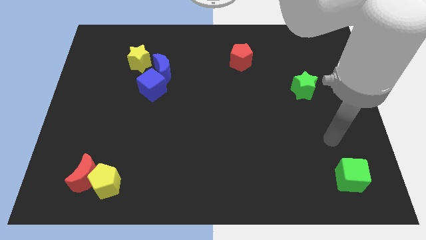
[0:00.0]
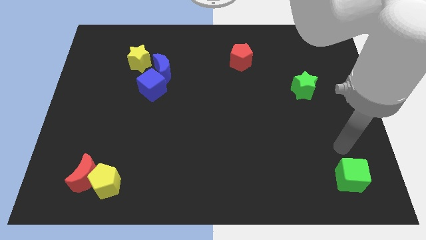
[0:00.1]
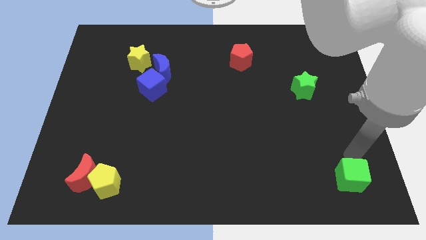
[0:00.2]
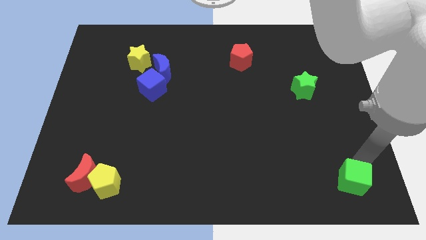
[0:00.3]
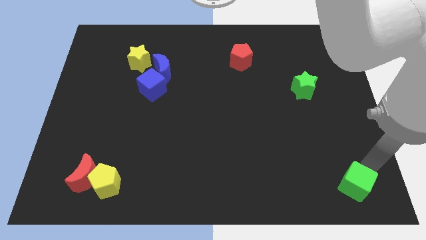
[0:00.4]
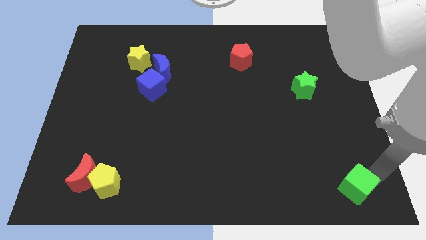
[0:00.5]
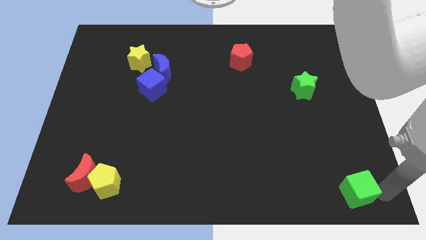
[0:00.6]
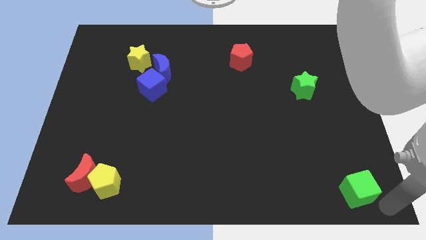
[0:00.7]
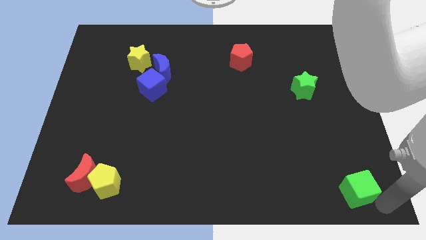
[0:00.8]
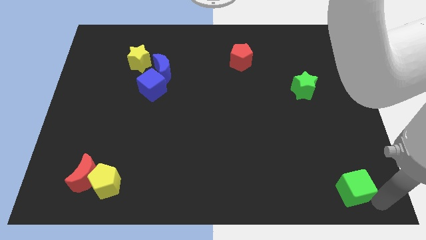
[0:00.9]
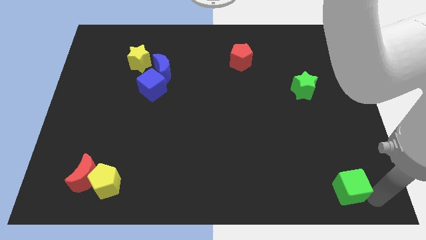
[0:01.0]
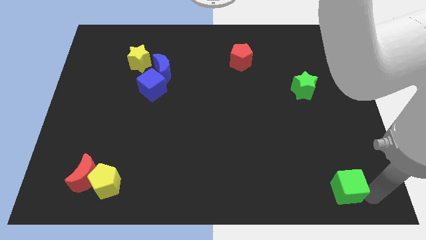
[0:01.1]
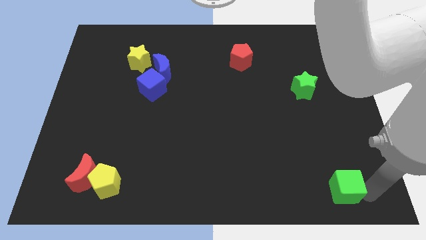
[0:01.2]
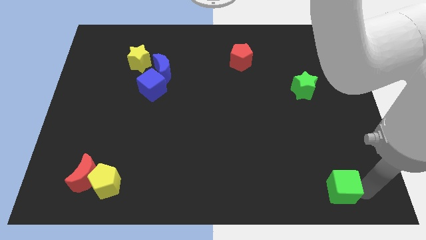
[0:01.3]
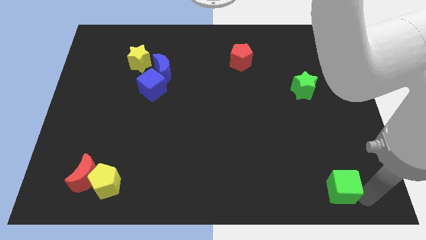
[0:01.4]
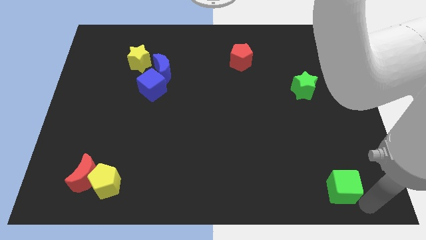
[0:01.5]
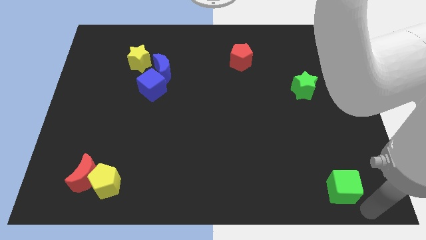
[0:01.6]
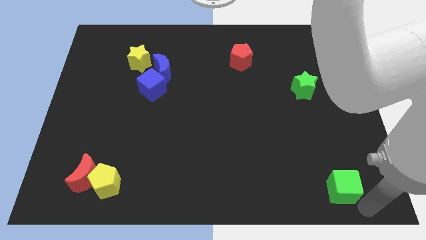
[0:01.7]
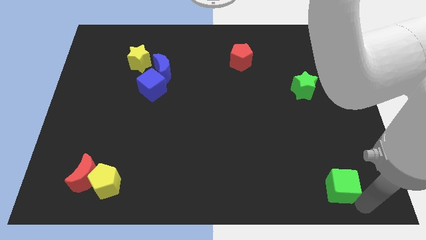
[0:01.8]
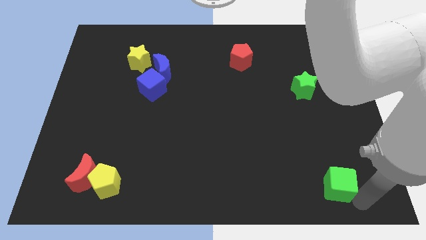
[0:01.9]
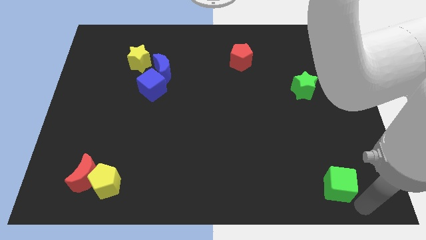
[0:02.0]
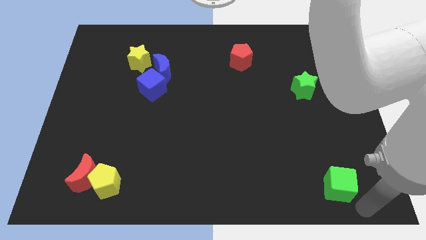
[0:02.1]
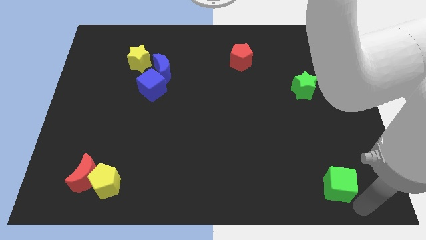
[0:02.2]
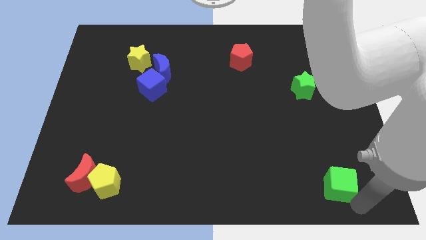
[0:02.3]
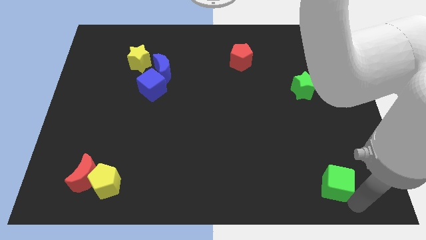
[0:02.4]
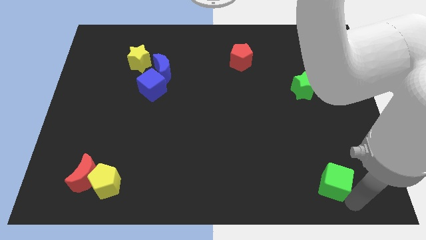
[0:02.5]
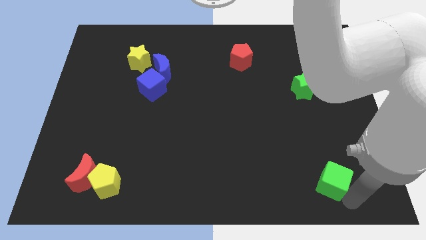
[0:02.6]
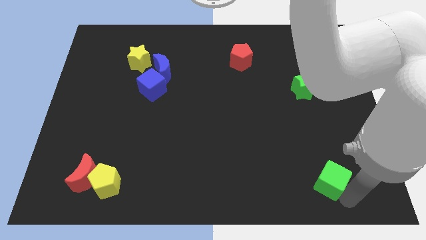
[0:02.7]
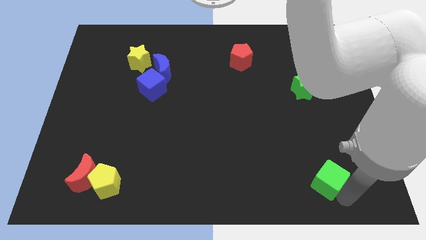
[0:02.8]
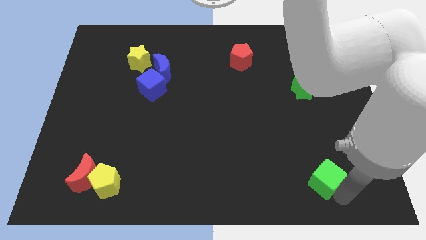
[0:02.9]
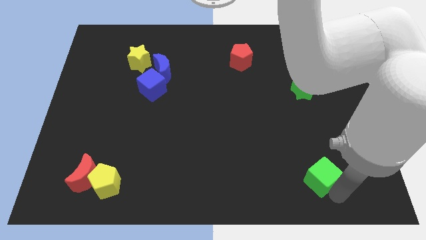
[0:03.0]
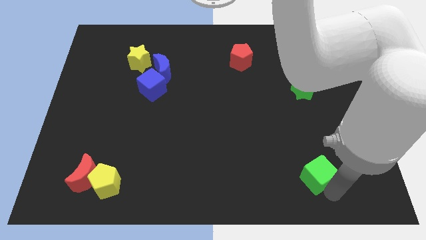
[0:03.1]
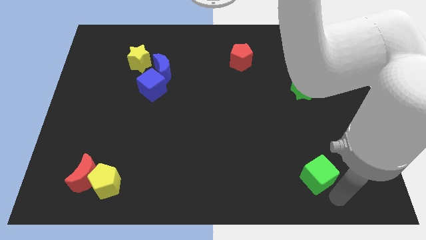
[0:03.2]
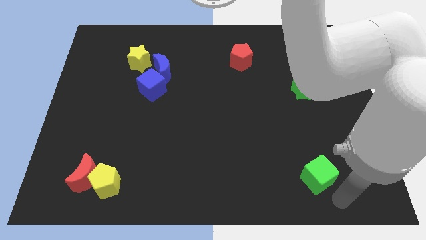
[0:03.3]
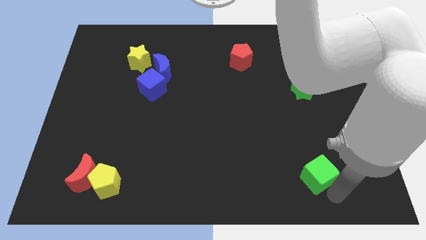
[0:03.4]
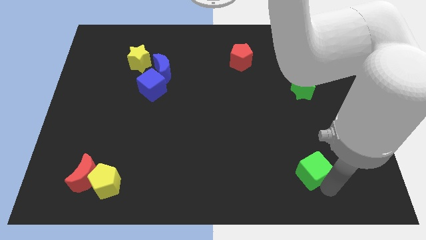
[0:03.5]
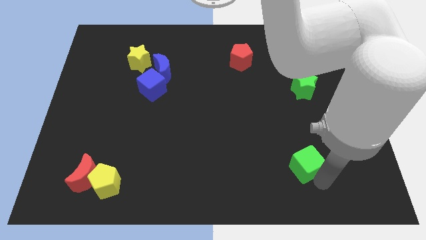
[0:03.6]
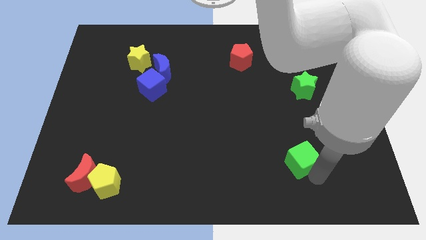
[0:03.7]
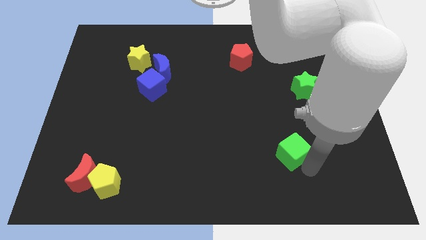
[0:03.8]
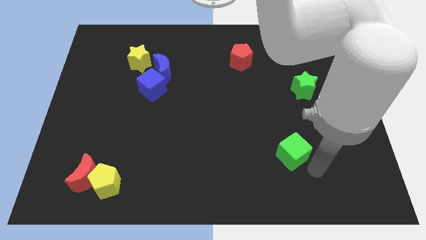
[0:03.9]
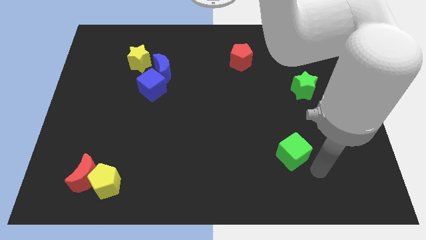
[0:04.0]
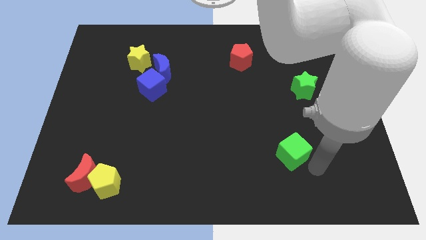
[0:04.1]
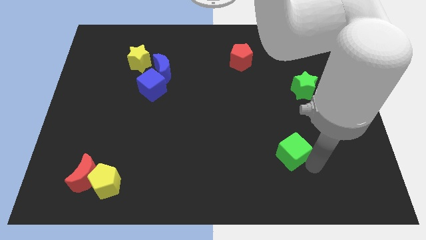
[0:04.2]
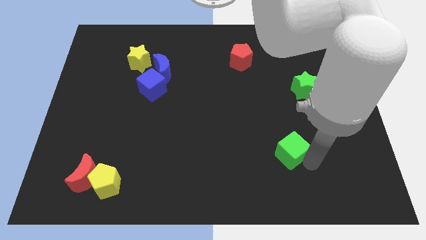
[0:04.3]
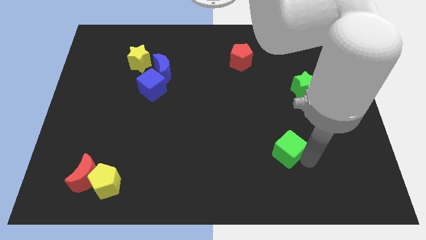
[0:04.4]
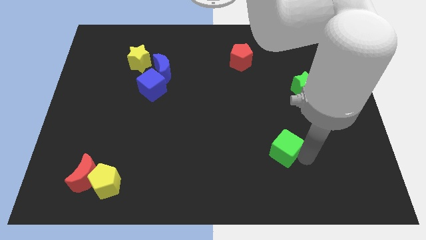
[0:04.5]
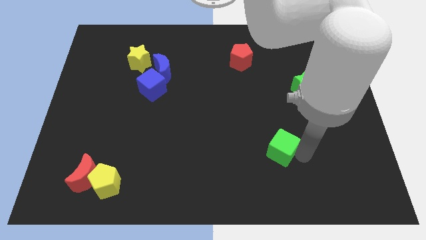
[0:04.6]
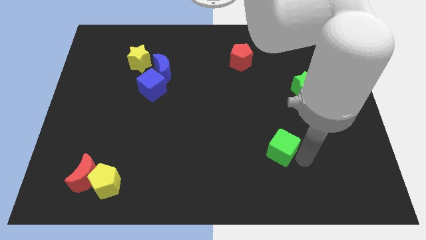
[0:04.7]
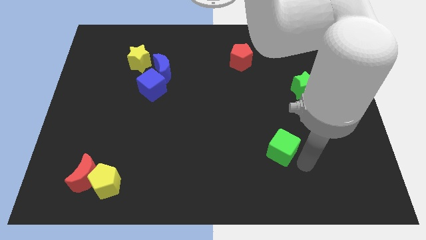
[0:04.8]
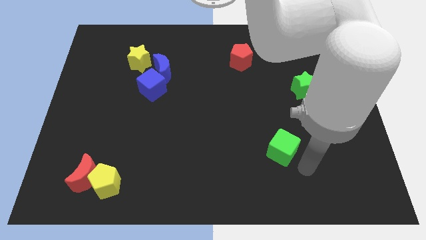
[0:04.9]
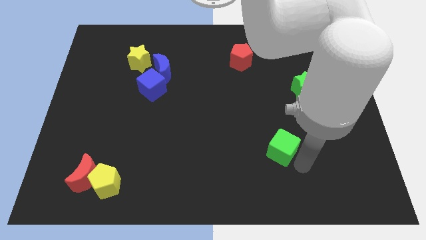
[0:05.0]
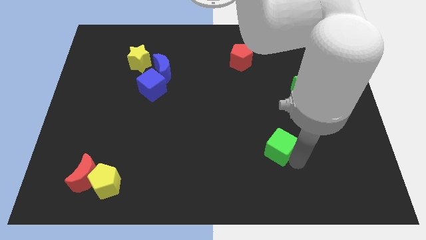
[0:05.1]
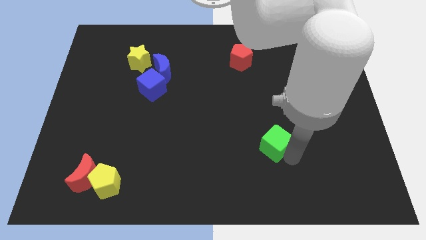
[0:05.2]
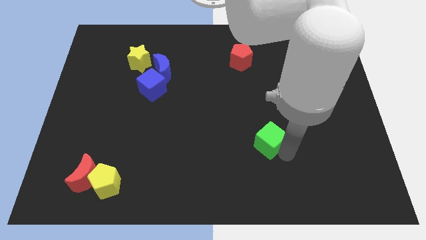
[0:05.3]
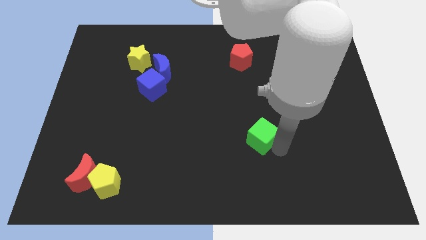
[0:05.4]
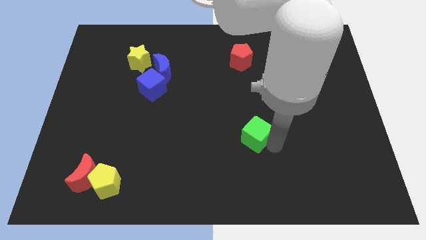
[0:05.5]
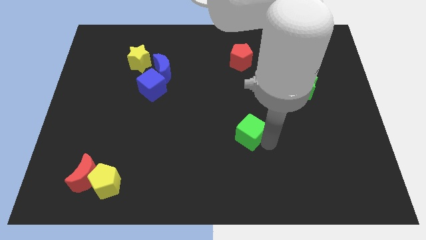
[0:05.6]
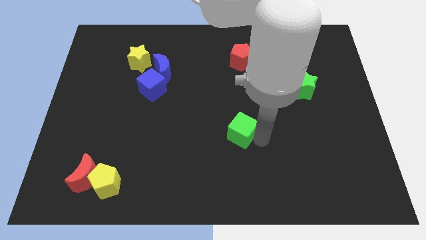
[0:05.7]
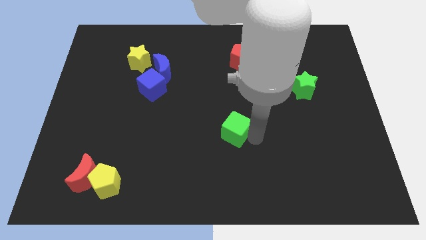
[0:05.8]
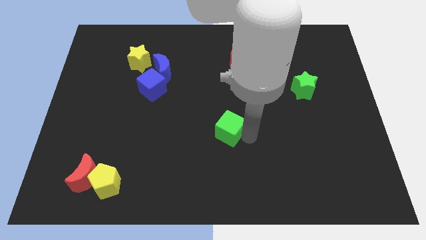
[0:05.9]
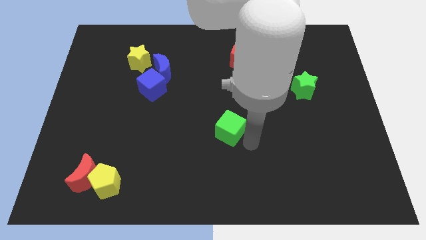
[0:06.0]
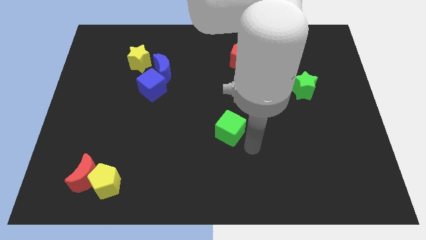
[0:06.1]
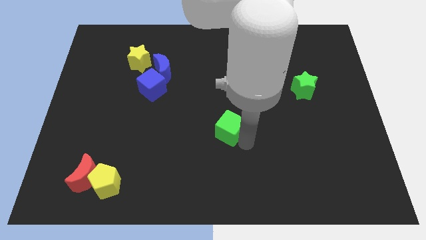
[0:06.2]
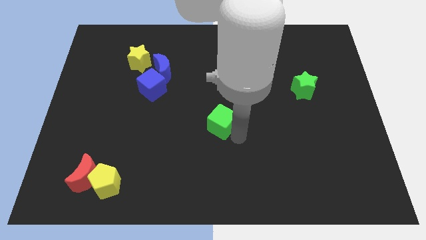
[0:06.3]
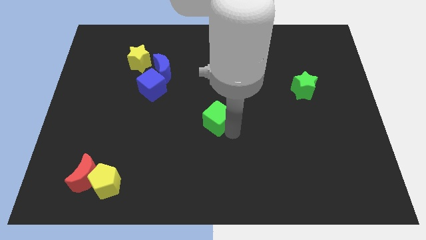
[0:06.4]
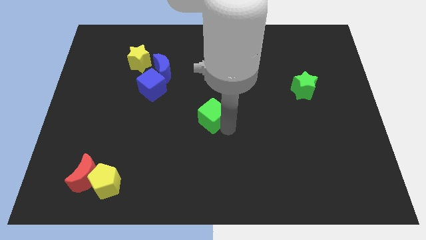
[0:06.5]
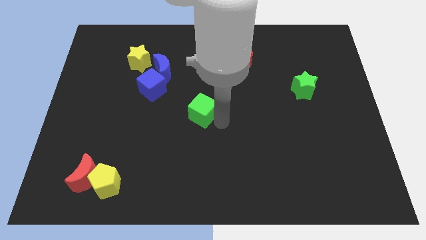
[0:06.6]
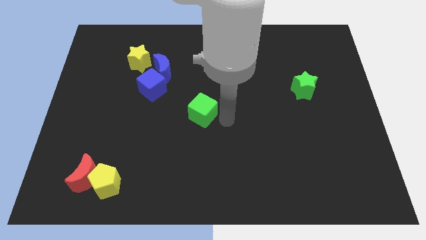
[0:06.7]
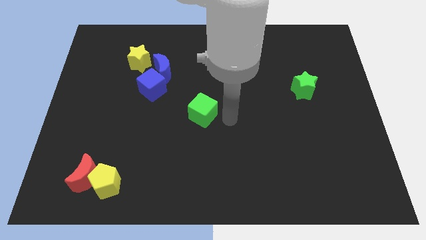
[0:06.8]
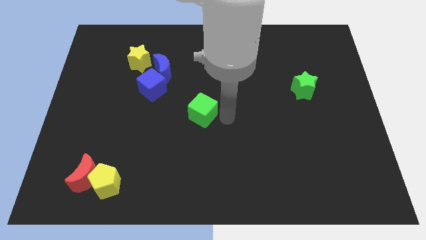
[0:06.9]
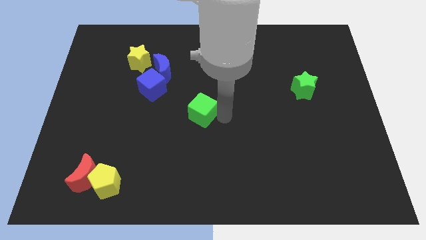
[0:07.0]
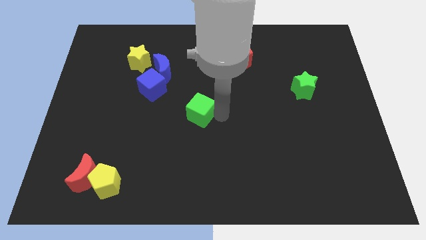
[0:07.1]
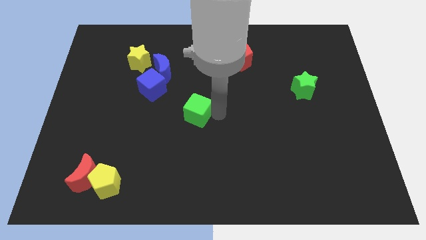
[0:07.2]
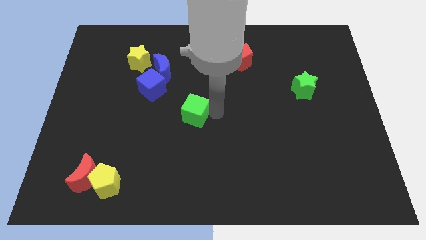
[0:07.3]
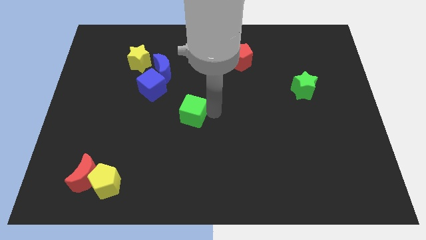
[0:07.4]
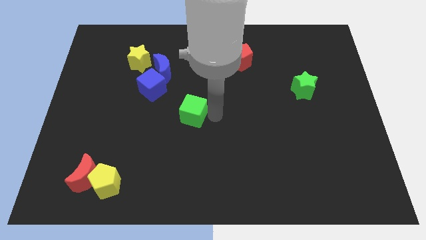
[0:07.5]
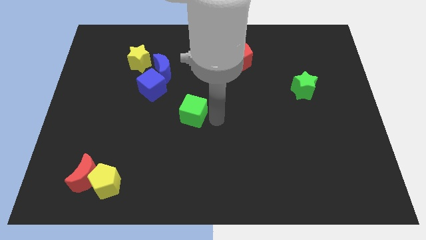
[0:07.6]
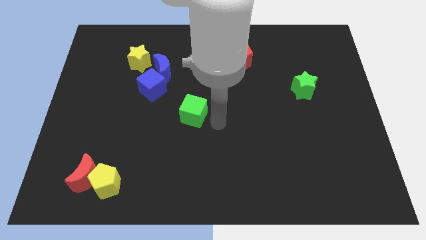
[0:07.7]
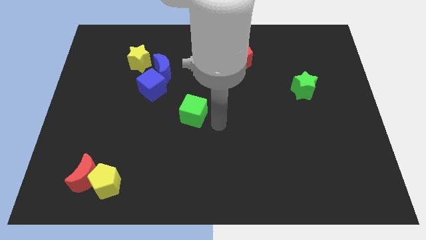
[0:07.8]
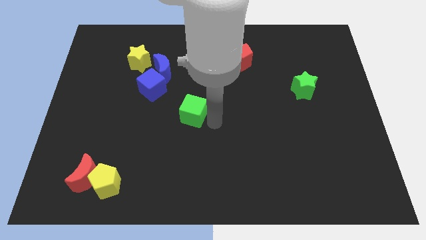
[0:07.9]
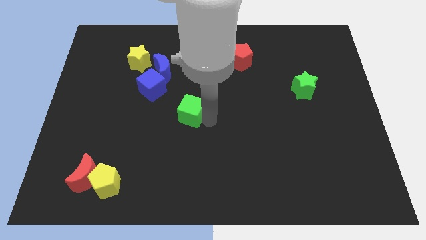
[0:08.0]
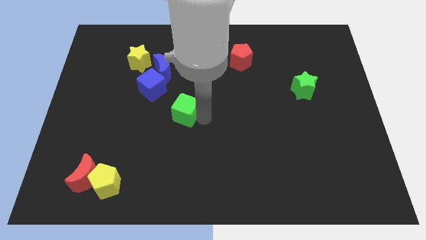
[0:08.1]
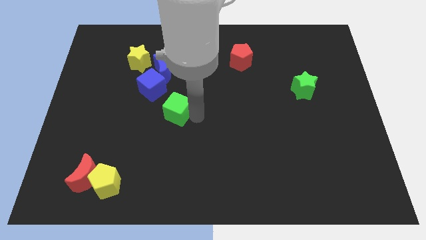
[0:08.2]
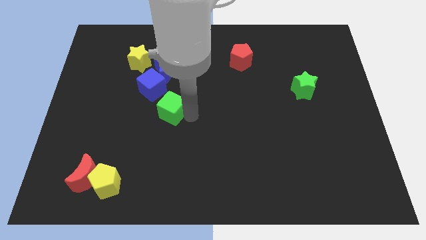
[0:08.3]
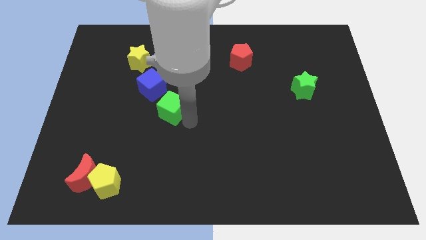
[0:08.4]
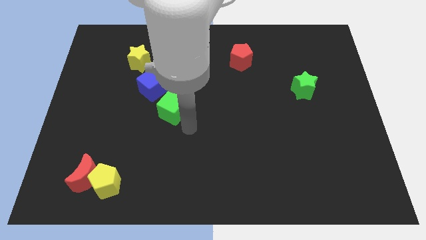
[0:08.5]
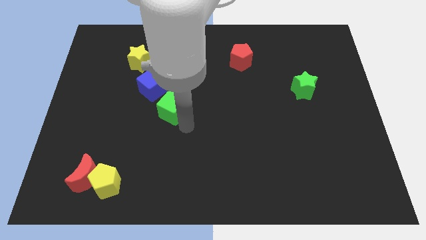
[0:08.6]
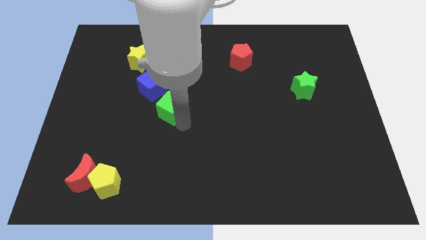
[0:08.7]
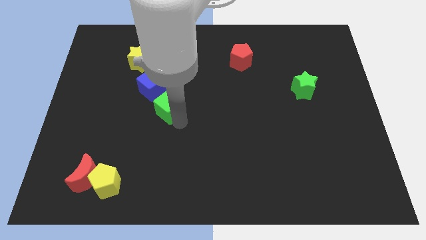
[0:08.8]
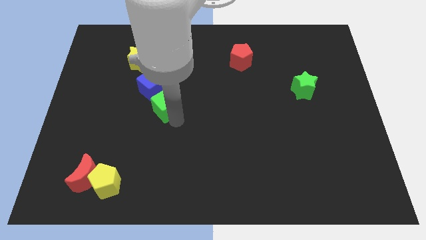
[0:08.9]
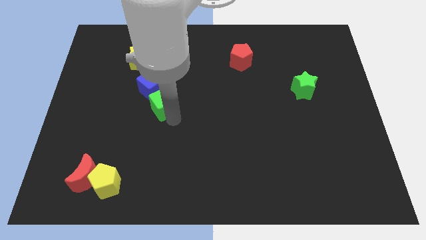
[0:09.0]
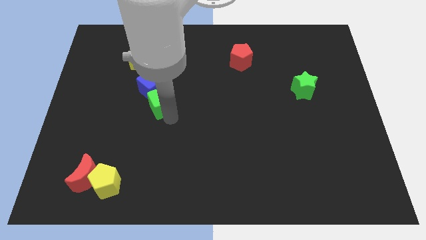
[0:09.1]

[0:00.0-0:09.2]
push the green cube next to the blue cube
